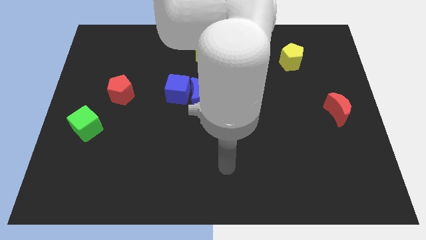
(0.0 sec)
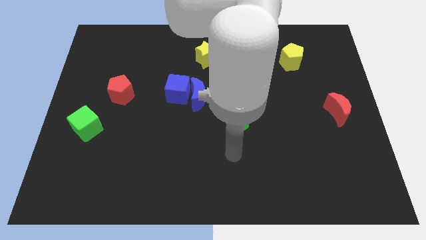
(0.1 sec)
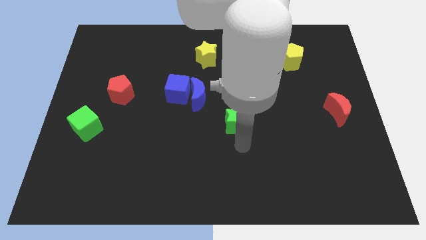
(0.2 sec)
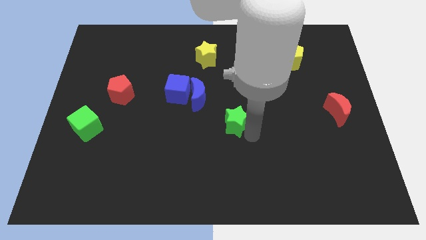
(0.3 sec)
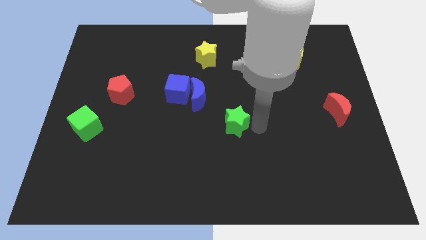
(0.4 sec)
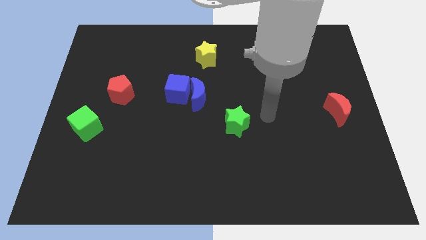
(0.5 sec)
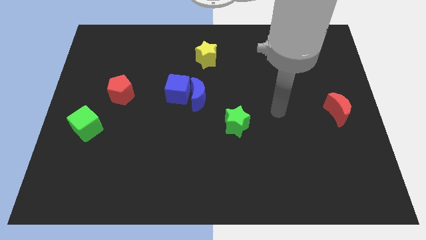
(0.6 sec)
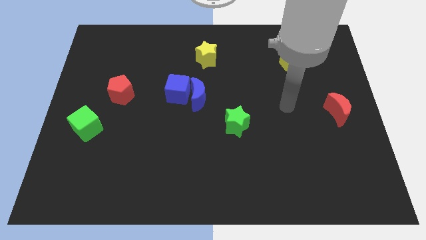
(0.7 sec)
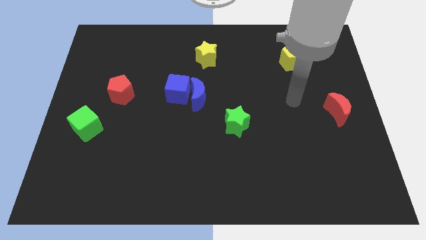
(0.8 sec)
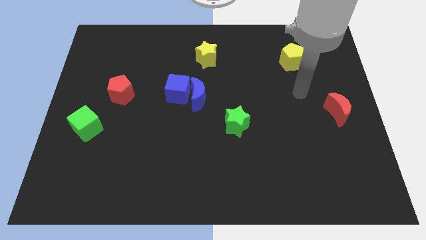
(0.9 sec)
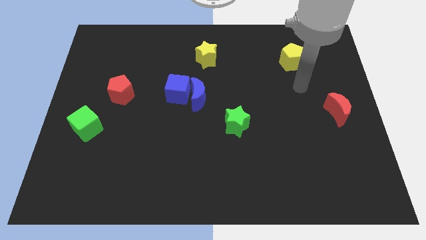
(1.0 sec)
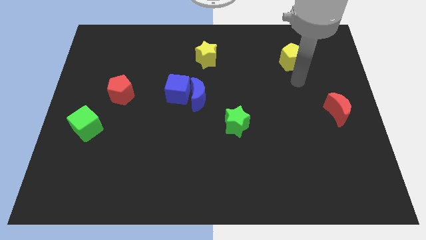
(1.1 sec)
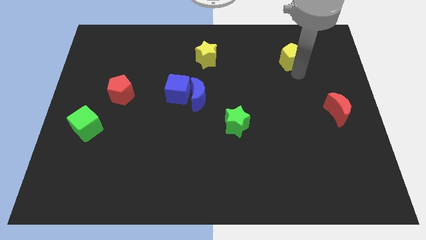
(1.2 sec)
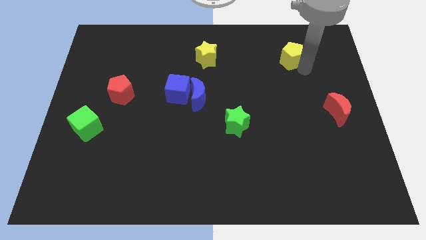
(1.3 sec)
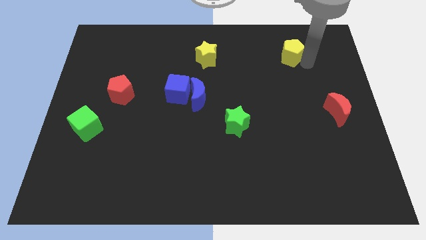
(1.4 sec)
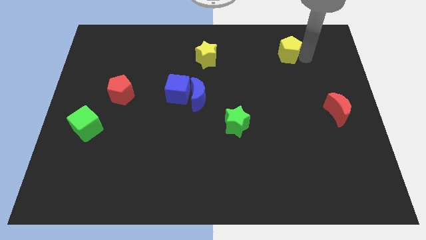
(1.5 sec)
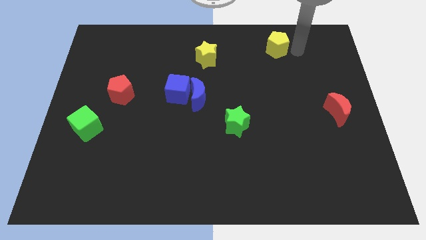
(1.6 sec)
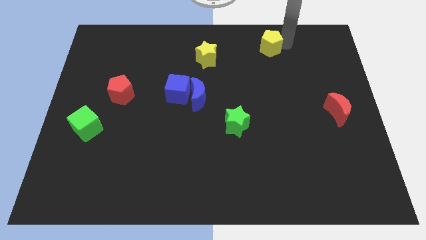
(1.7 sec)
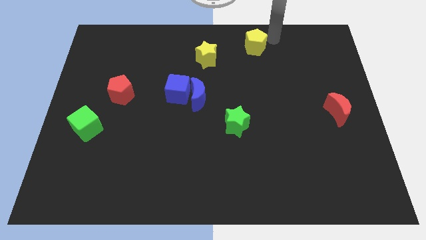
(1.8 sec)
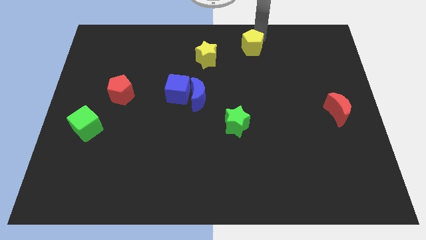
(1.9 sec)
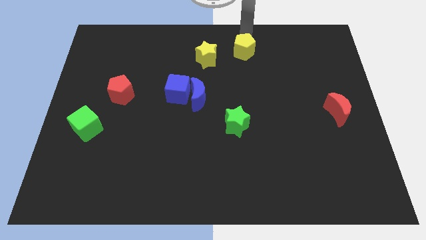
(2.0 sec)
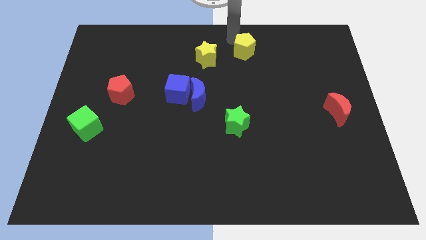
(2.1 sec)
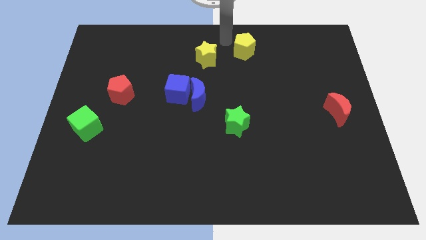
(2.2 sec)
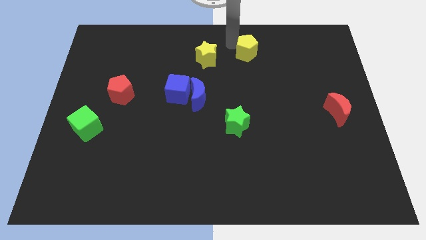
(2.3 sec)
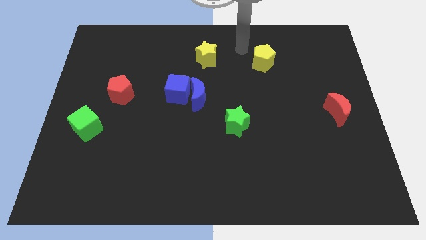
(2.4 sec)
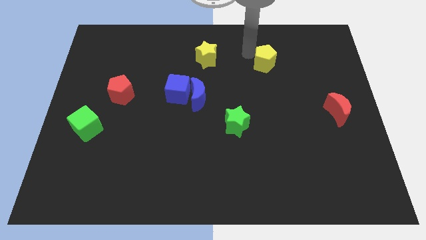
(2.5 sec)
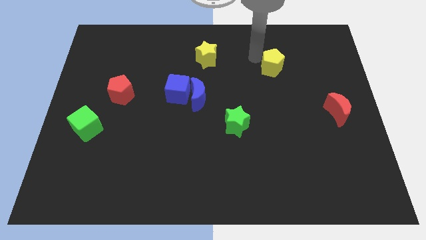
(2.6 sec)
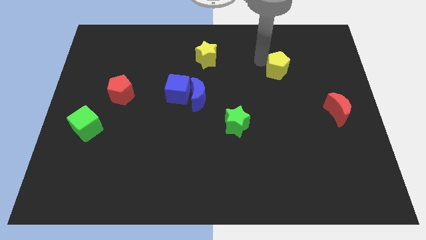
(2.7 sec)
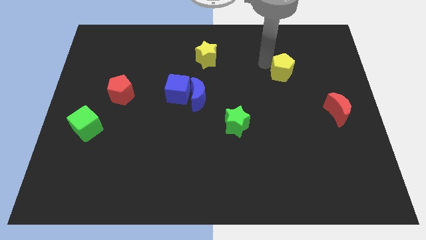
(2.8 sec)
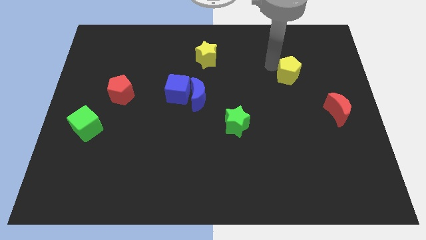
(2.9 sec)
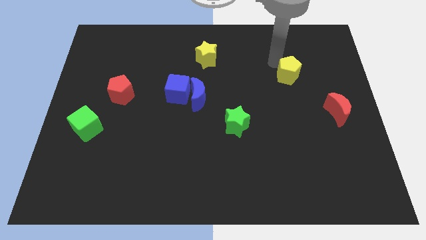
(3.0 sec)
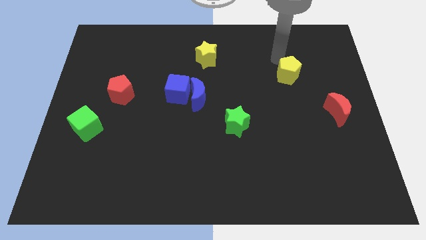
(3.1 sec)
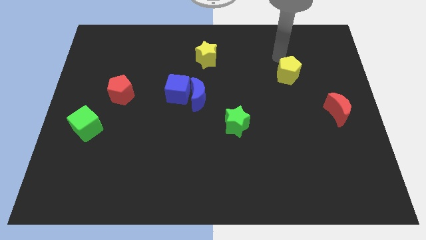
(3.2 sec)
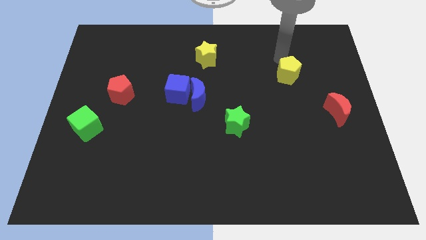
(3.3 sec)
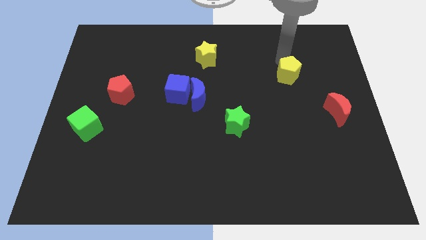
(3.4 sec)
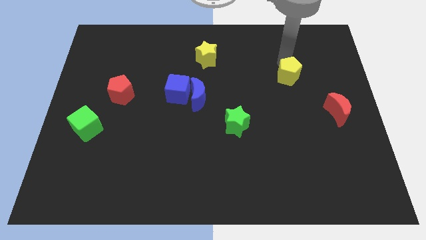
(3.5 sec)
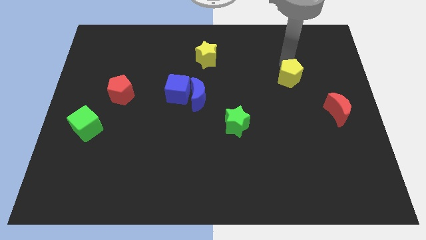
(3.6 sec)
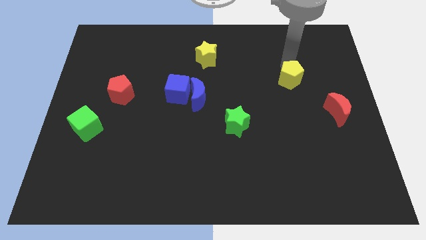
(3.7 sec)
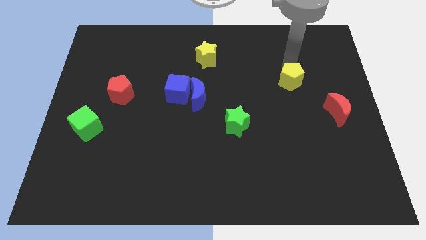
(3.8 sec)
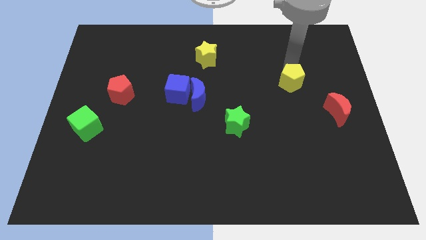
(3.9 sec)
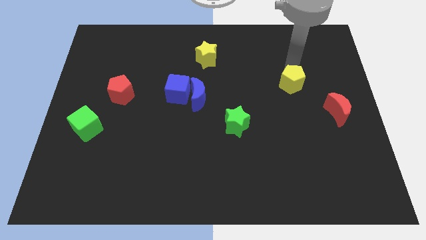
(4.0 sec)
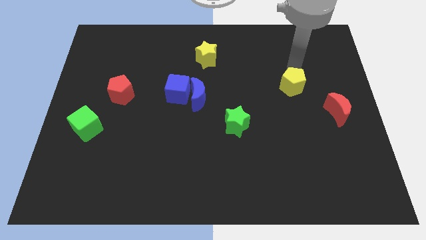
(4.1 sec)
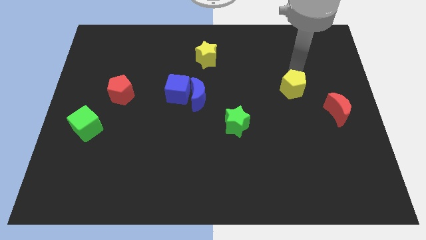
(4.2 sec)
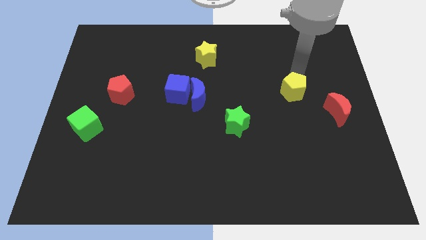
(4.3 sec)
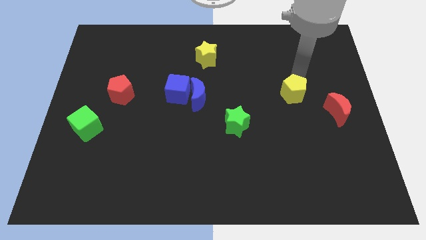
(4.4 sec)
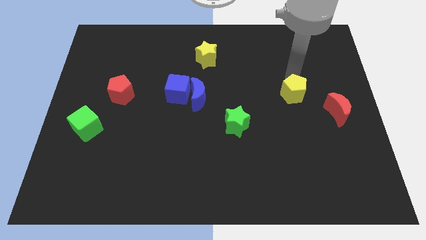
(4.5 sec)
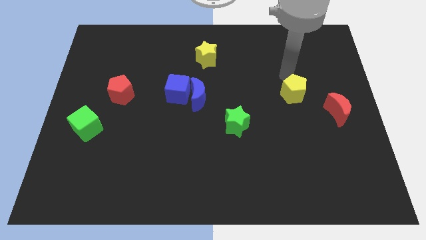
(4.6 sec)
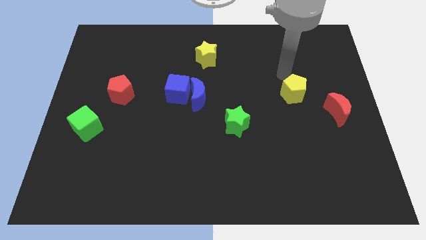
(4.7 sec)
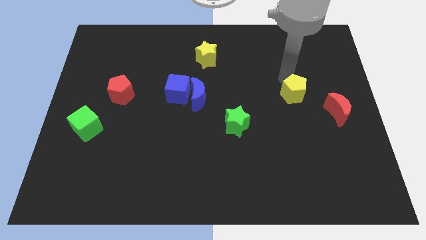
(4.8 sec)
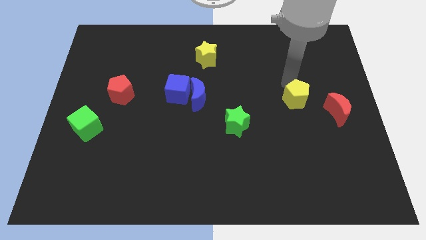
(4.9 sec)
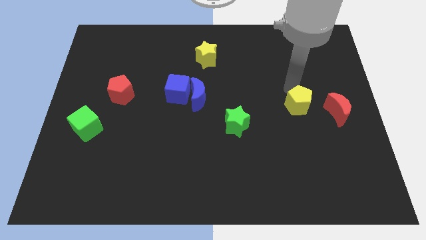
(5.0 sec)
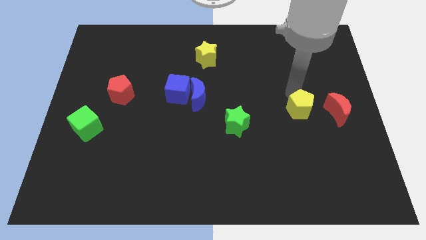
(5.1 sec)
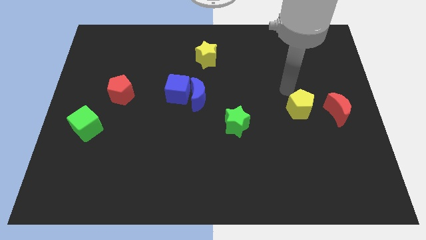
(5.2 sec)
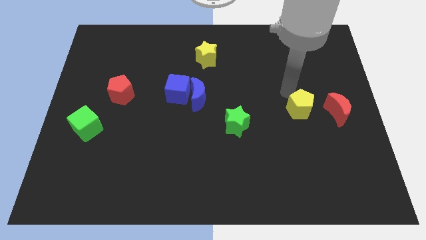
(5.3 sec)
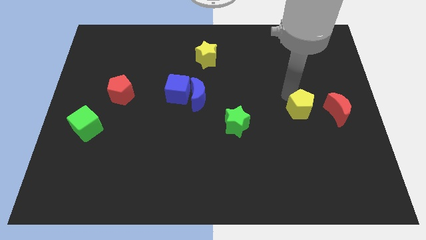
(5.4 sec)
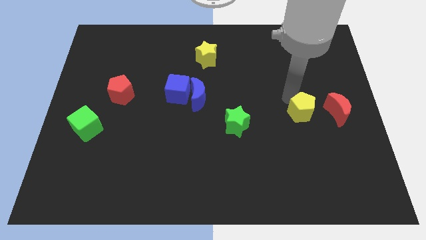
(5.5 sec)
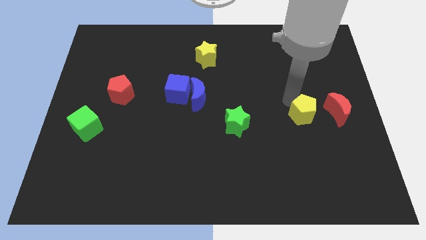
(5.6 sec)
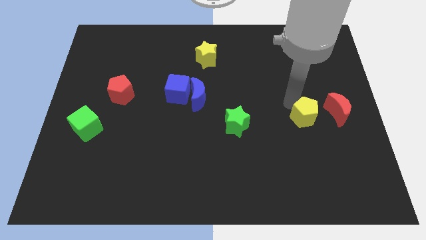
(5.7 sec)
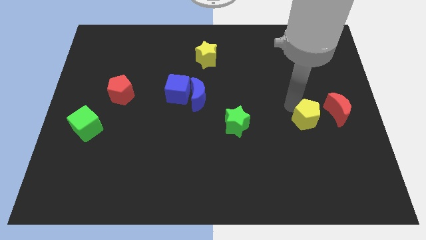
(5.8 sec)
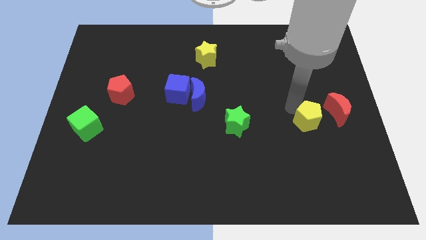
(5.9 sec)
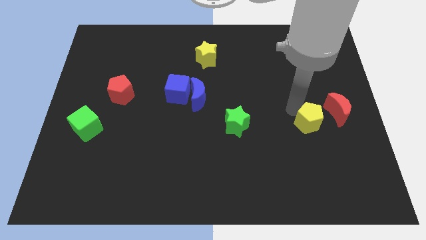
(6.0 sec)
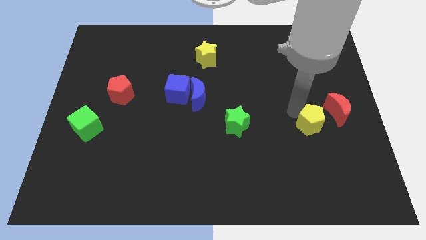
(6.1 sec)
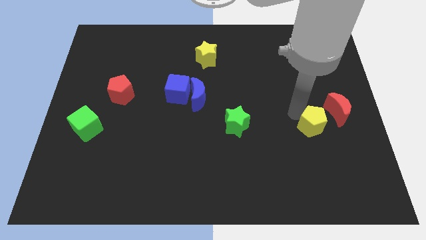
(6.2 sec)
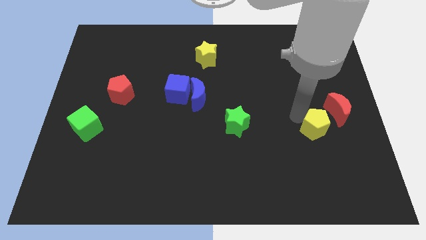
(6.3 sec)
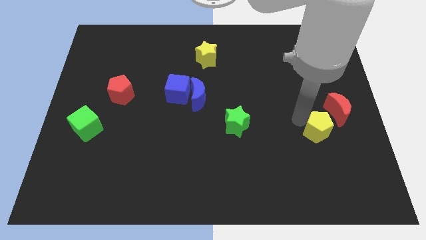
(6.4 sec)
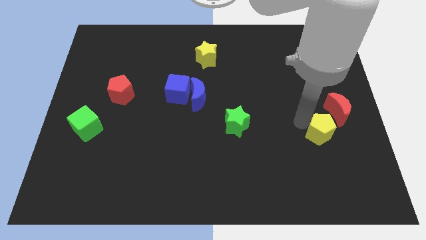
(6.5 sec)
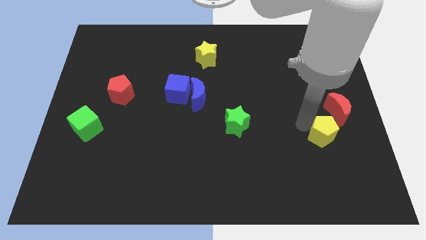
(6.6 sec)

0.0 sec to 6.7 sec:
move the yellow pentagon to the bottom side of the red moon
